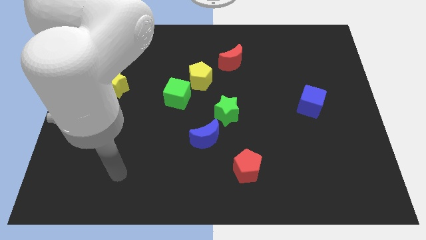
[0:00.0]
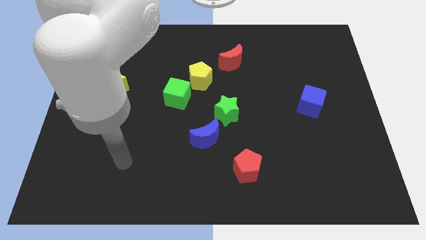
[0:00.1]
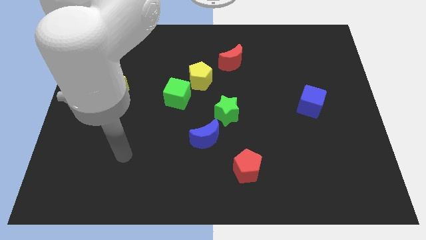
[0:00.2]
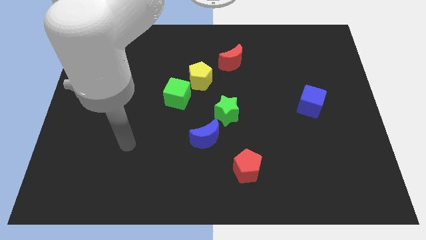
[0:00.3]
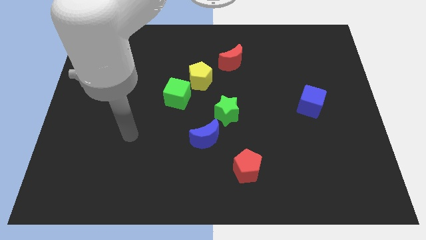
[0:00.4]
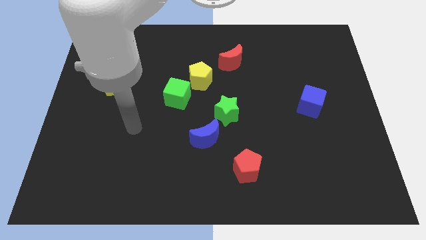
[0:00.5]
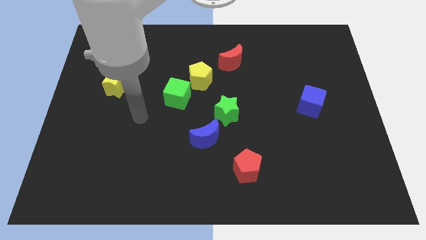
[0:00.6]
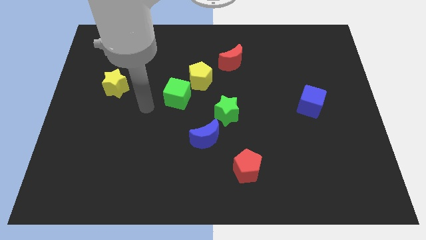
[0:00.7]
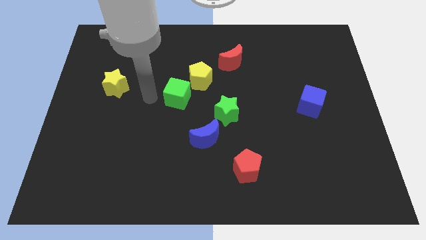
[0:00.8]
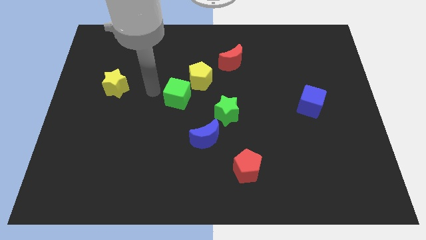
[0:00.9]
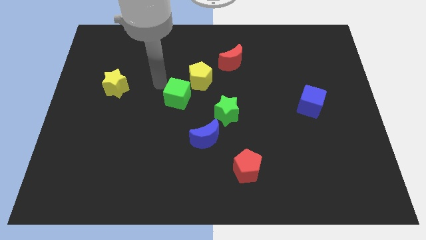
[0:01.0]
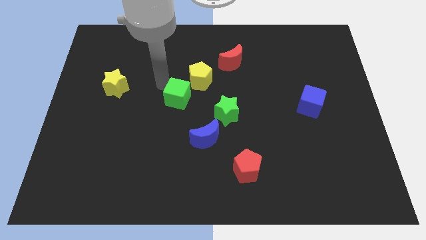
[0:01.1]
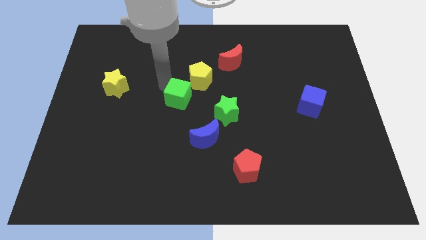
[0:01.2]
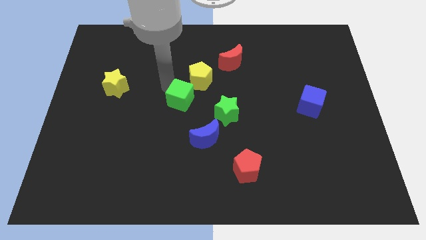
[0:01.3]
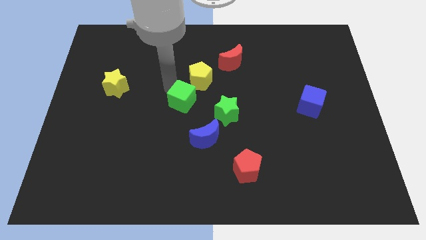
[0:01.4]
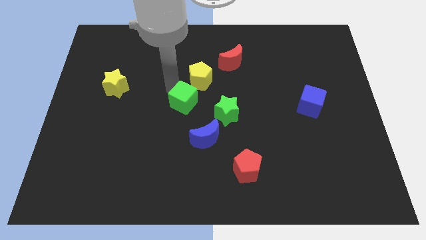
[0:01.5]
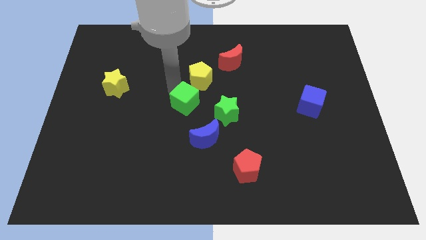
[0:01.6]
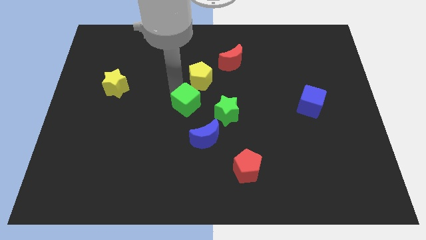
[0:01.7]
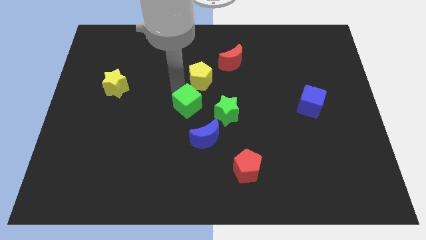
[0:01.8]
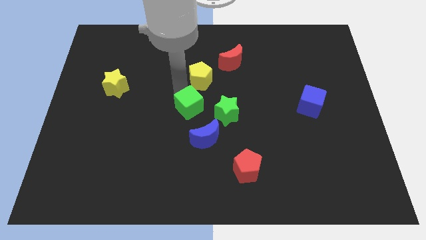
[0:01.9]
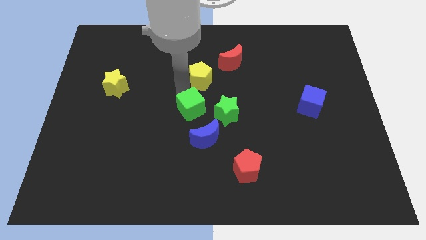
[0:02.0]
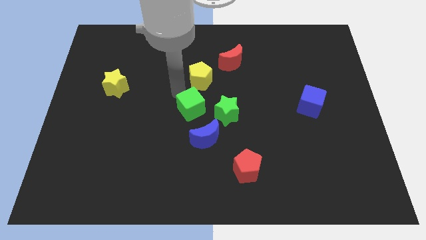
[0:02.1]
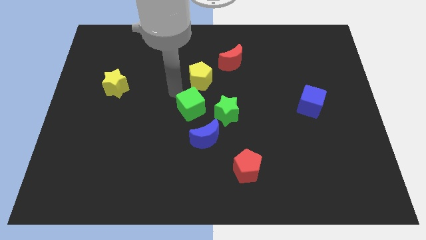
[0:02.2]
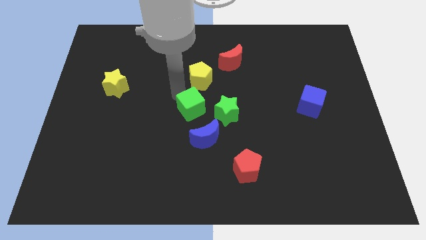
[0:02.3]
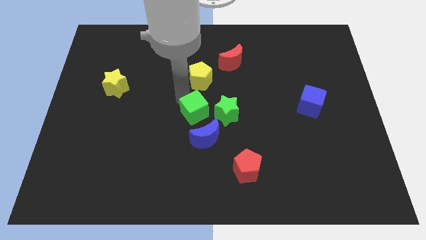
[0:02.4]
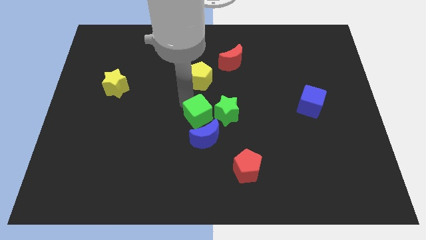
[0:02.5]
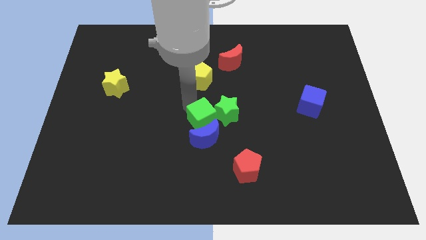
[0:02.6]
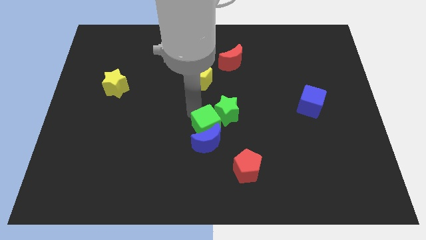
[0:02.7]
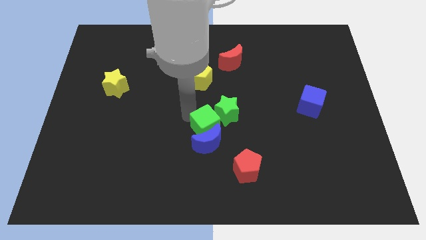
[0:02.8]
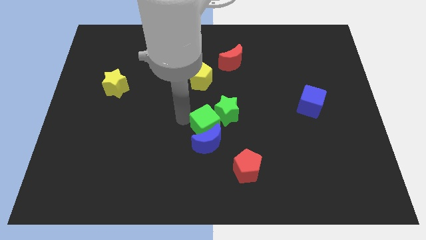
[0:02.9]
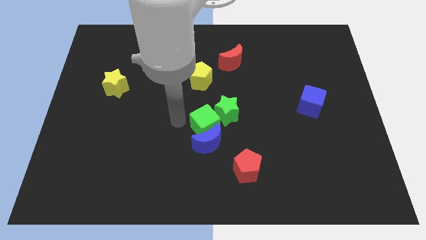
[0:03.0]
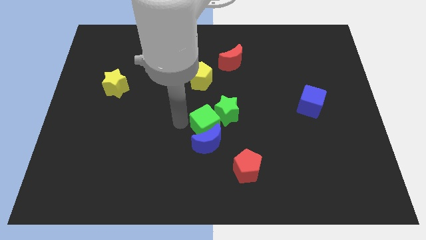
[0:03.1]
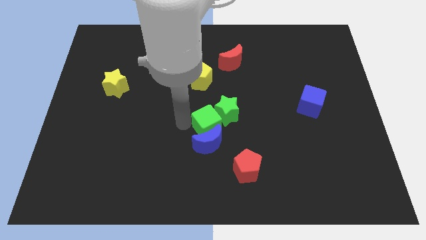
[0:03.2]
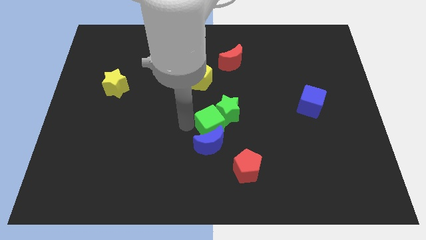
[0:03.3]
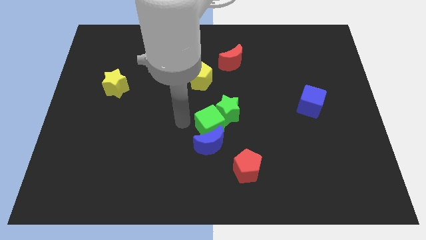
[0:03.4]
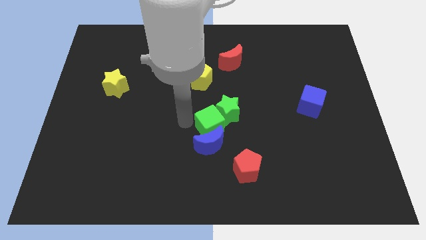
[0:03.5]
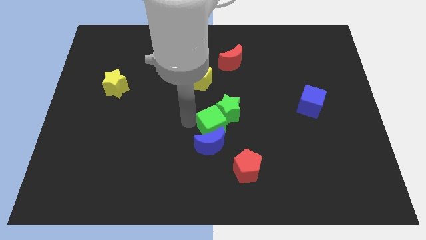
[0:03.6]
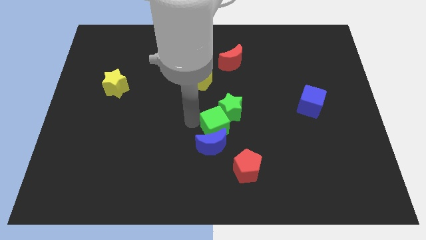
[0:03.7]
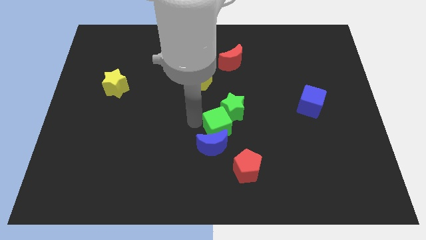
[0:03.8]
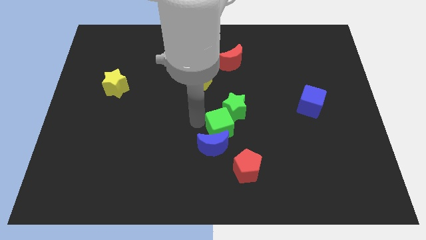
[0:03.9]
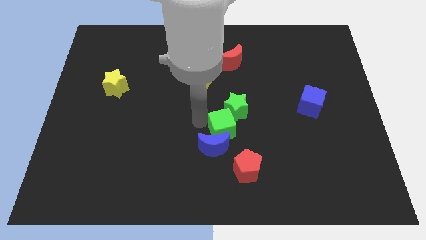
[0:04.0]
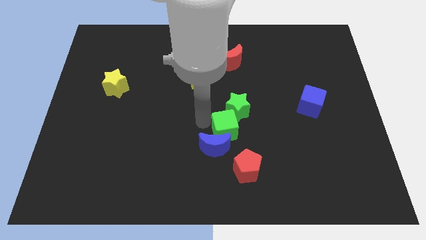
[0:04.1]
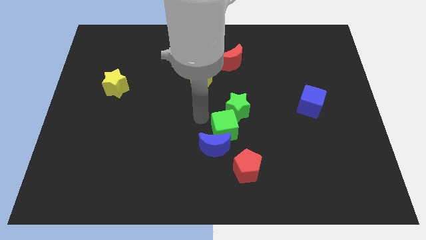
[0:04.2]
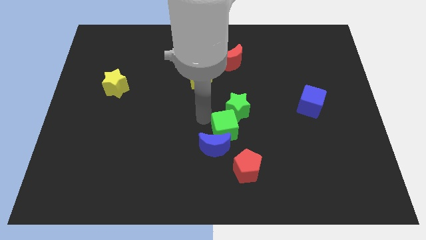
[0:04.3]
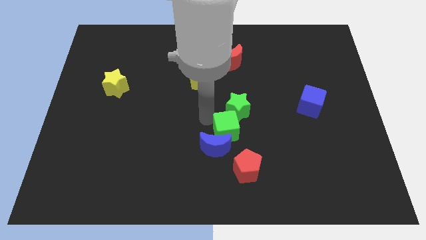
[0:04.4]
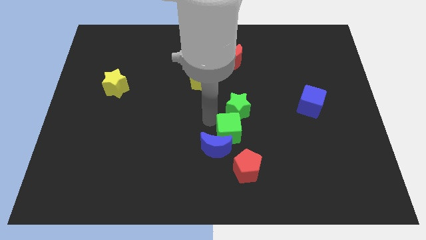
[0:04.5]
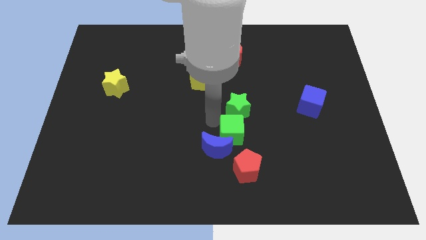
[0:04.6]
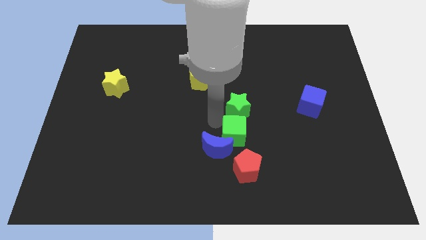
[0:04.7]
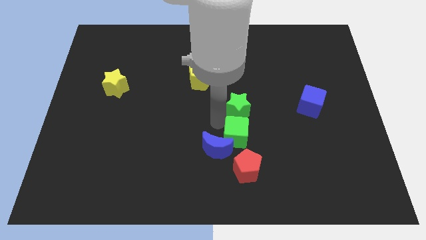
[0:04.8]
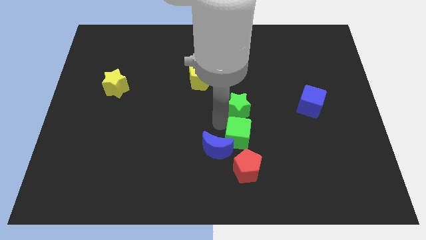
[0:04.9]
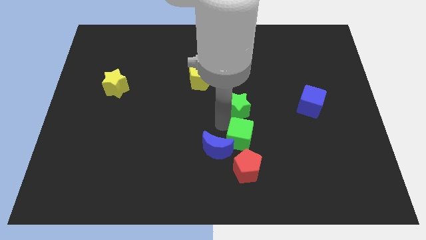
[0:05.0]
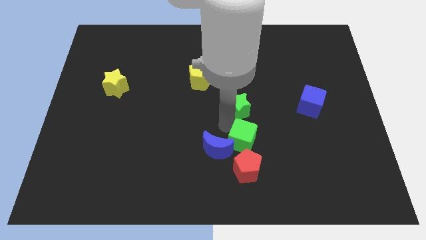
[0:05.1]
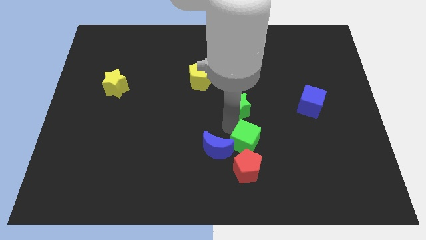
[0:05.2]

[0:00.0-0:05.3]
slide the green cube down and to the right

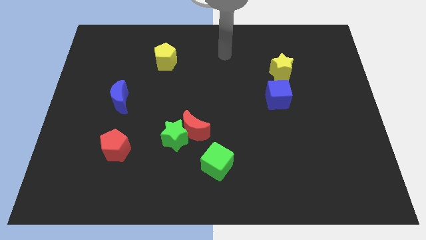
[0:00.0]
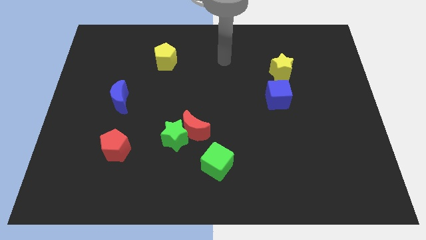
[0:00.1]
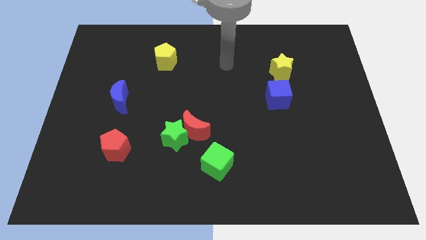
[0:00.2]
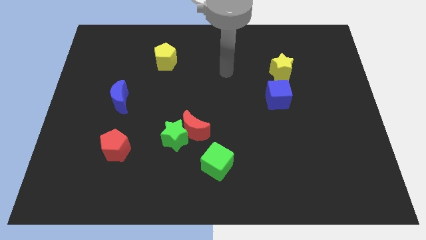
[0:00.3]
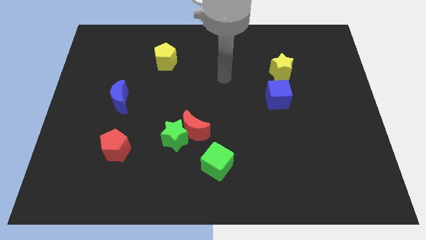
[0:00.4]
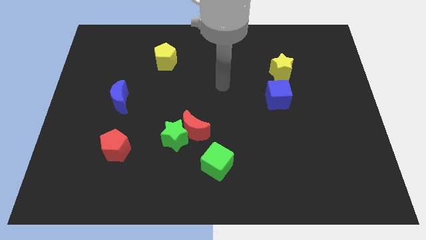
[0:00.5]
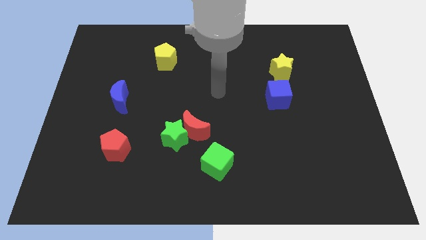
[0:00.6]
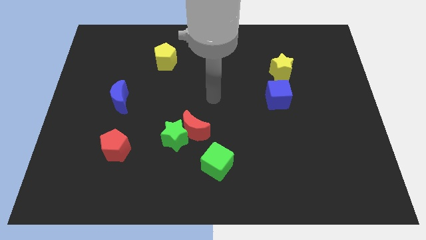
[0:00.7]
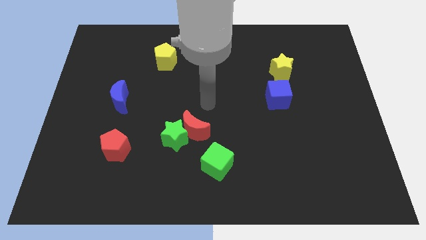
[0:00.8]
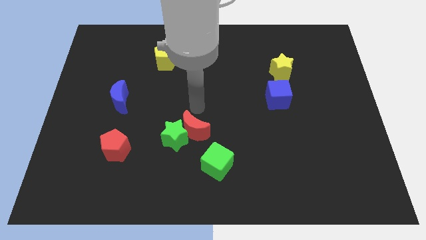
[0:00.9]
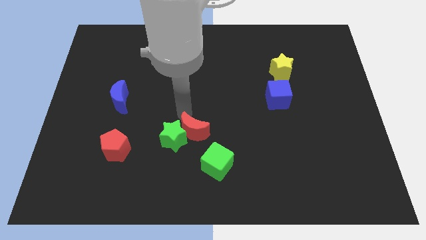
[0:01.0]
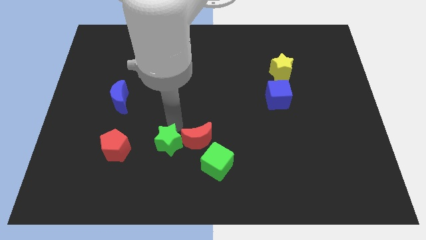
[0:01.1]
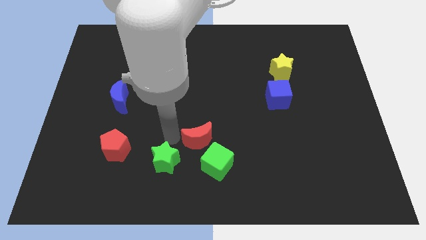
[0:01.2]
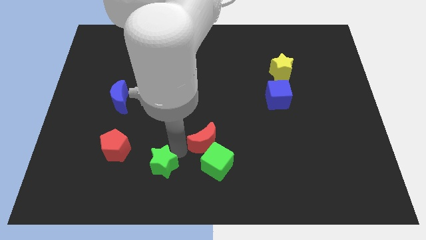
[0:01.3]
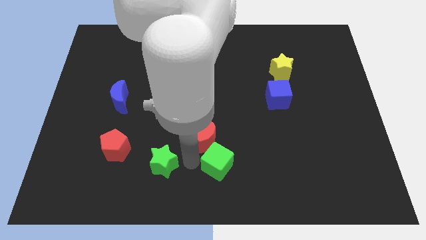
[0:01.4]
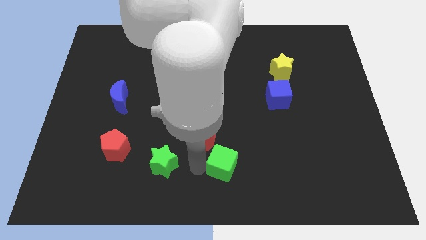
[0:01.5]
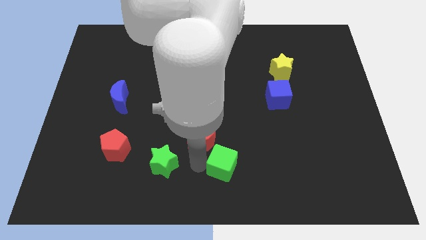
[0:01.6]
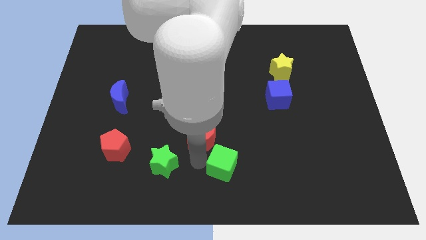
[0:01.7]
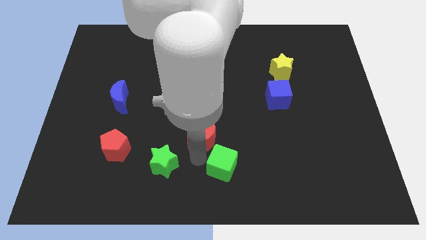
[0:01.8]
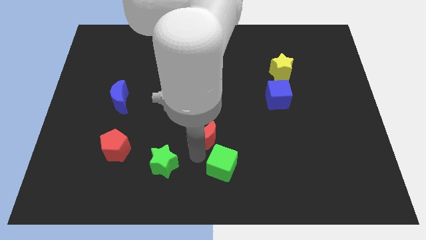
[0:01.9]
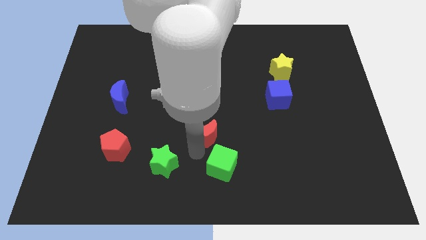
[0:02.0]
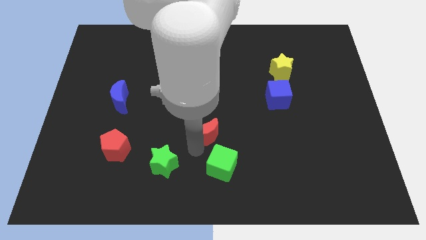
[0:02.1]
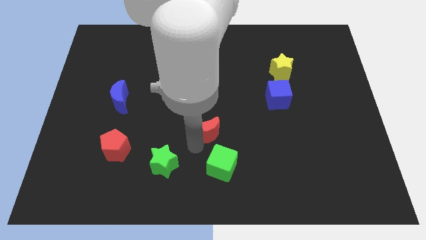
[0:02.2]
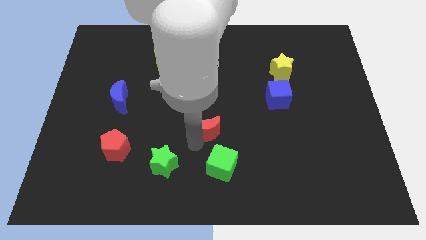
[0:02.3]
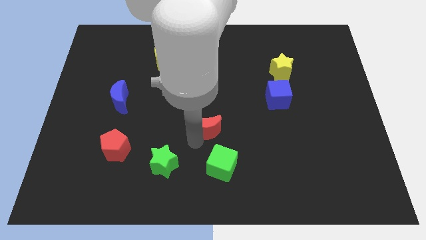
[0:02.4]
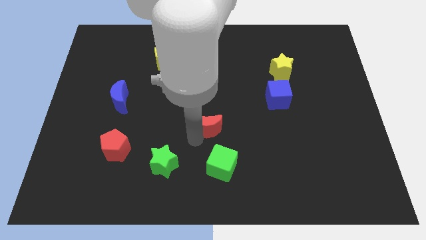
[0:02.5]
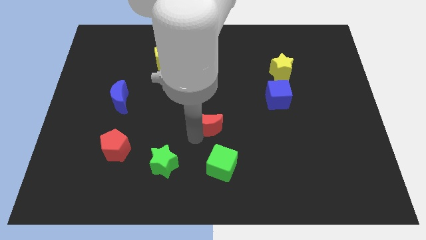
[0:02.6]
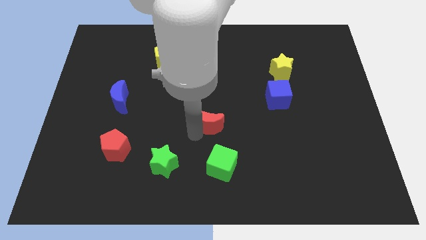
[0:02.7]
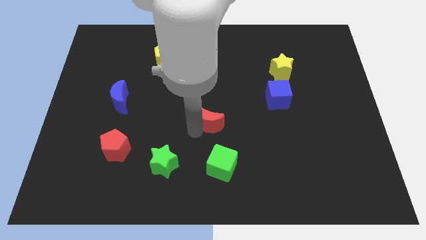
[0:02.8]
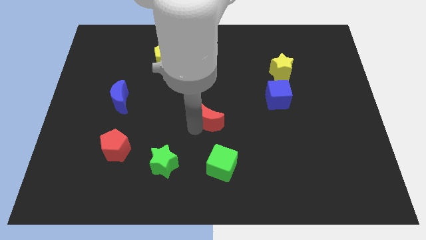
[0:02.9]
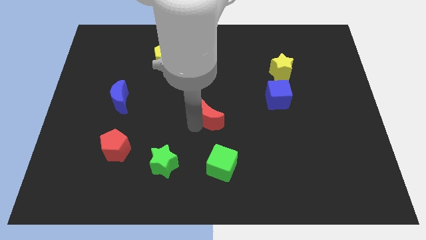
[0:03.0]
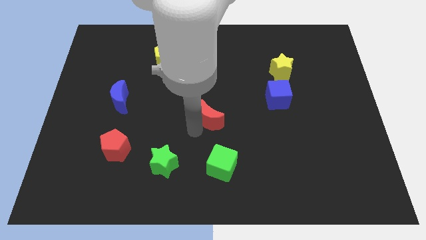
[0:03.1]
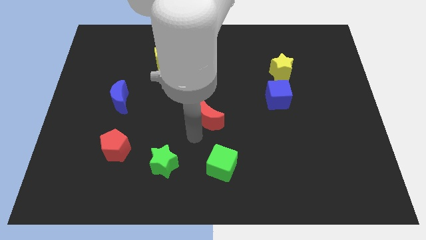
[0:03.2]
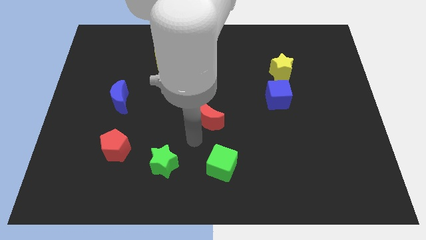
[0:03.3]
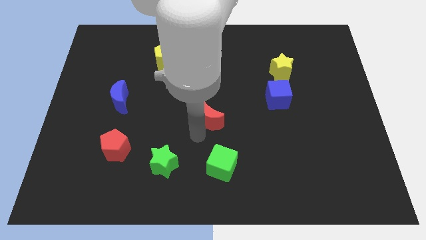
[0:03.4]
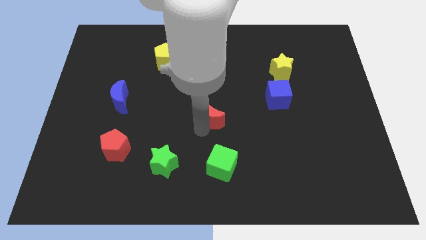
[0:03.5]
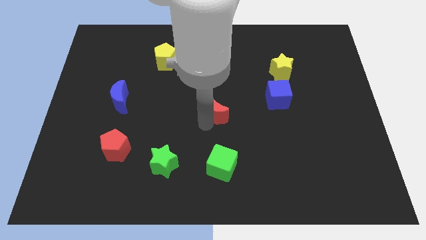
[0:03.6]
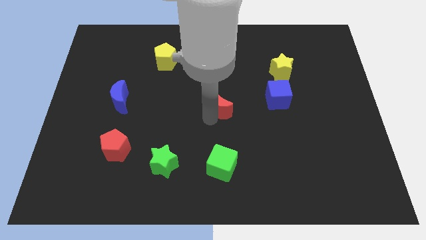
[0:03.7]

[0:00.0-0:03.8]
move the red moon upwards and then right a little
